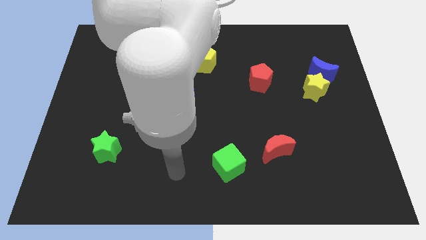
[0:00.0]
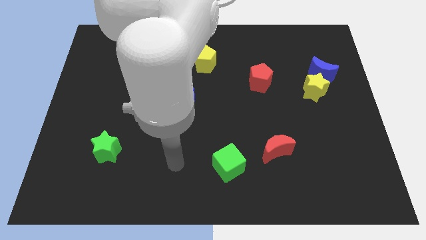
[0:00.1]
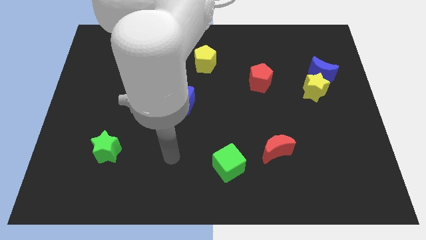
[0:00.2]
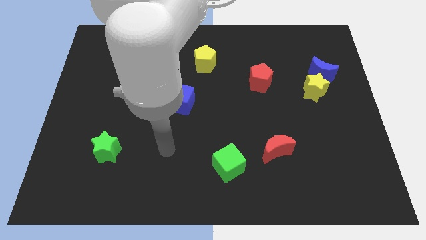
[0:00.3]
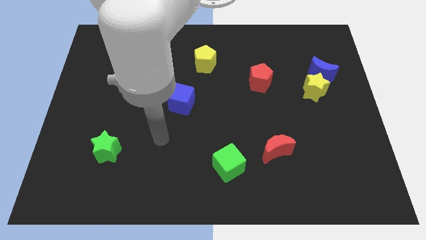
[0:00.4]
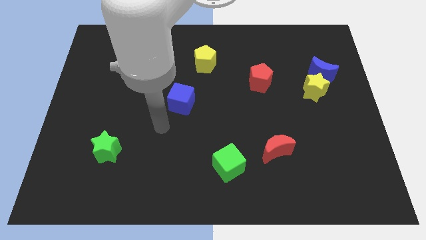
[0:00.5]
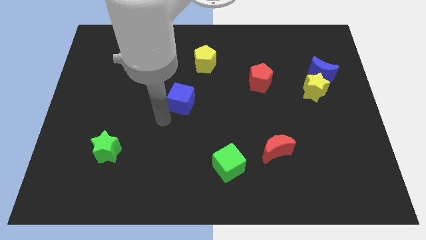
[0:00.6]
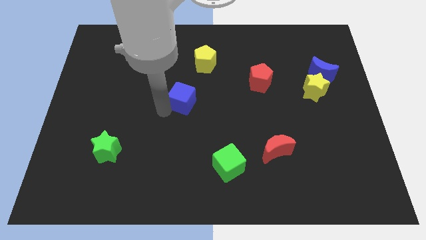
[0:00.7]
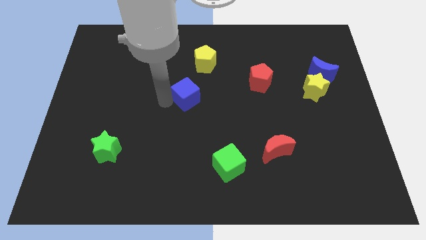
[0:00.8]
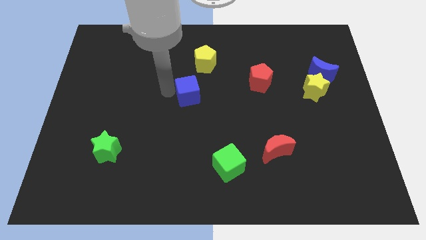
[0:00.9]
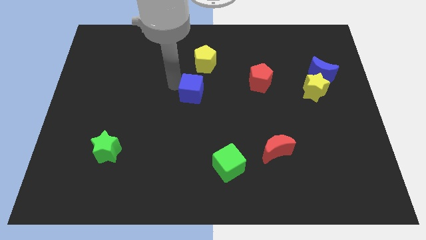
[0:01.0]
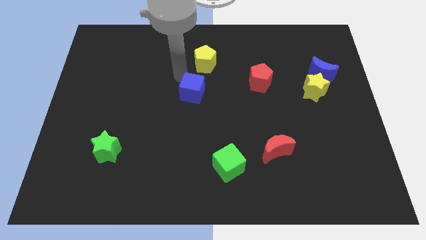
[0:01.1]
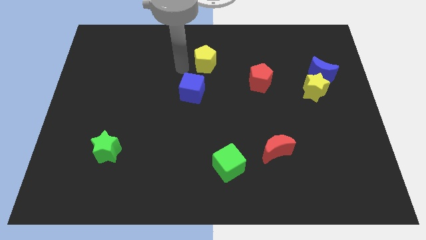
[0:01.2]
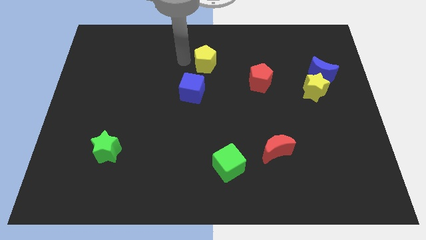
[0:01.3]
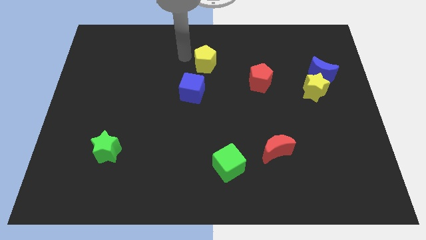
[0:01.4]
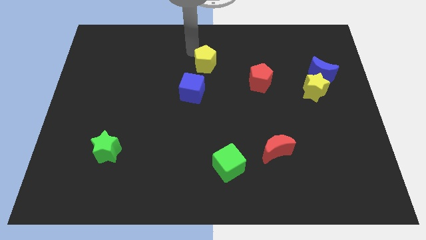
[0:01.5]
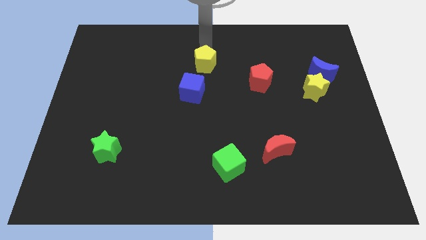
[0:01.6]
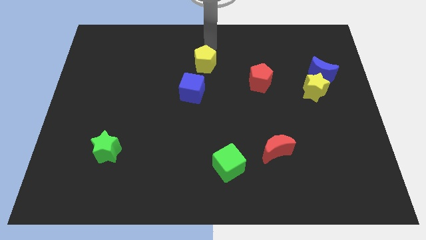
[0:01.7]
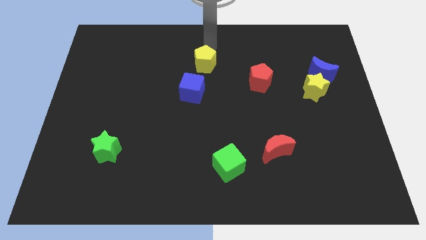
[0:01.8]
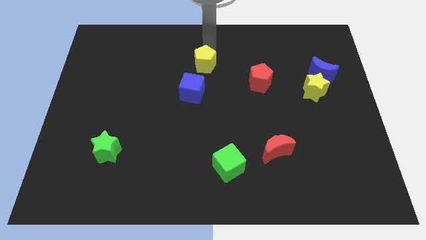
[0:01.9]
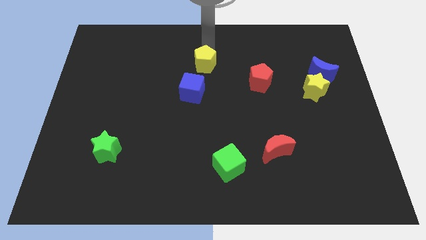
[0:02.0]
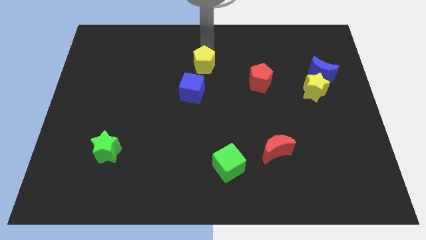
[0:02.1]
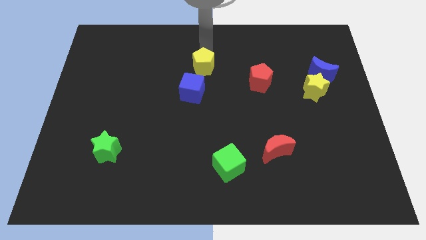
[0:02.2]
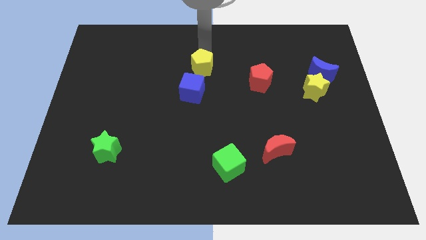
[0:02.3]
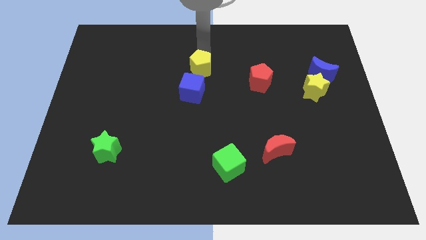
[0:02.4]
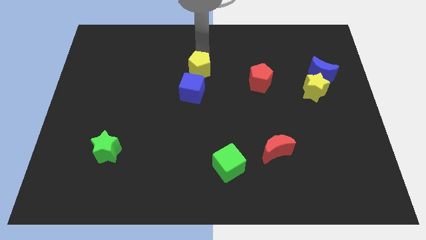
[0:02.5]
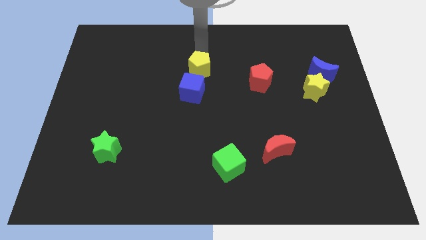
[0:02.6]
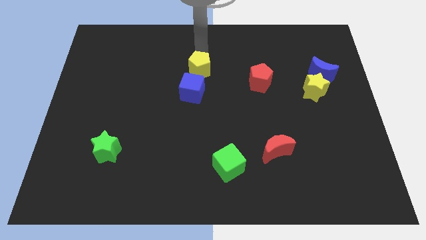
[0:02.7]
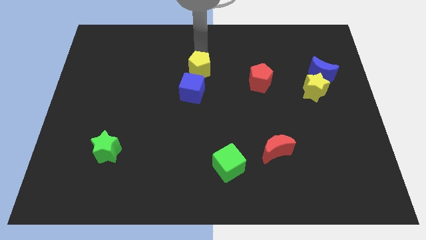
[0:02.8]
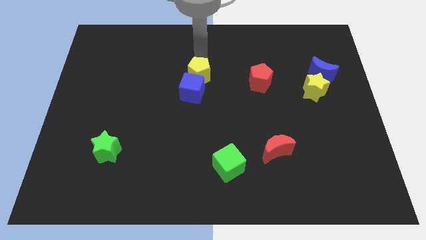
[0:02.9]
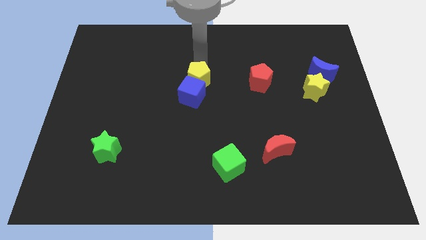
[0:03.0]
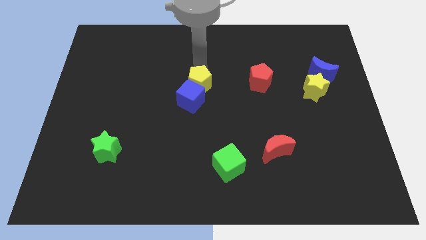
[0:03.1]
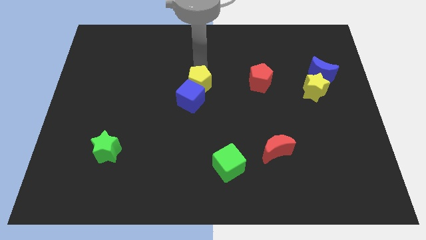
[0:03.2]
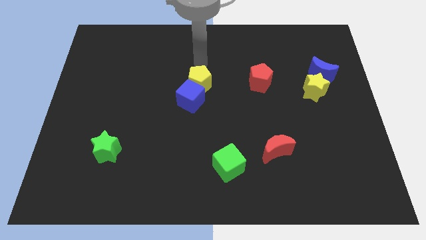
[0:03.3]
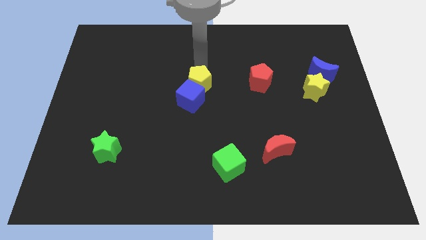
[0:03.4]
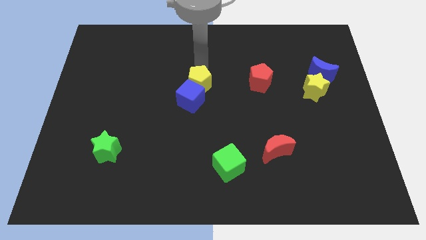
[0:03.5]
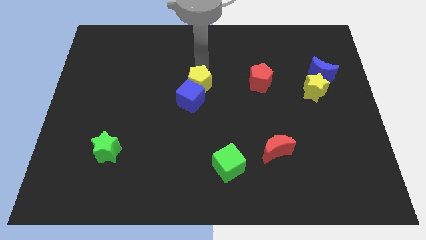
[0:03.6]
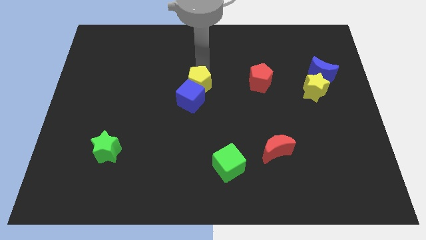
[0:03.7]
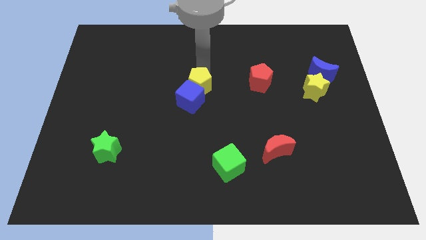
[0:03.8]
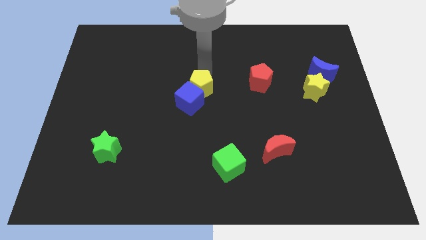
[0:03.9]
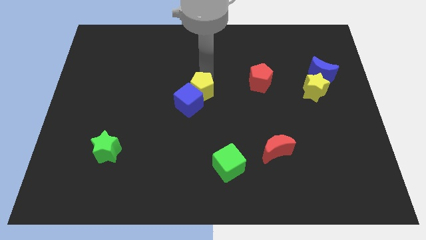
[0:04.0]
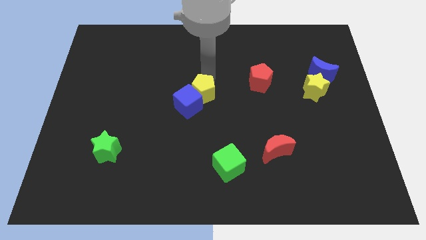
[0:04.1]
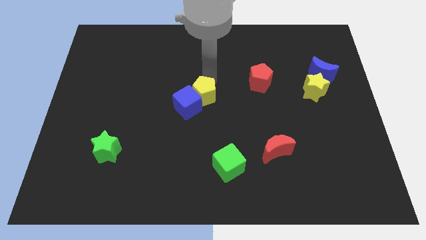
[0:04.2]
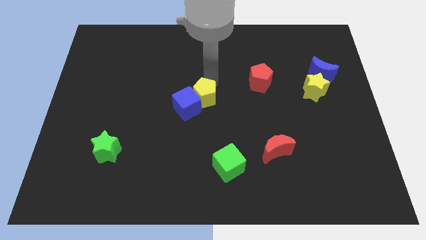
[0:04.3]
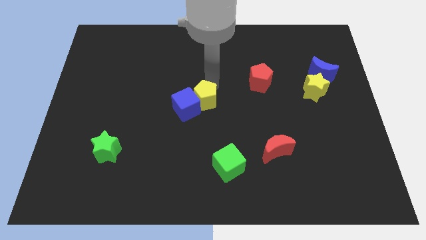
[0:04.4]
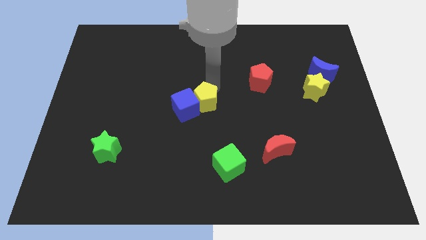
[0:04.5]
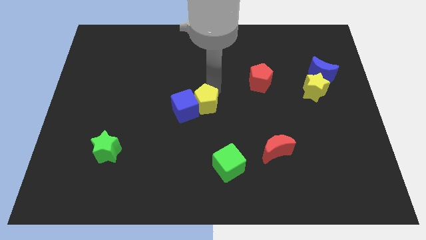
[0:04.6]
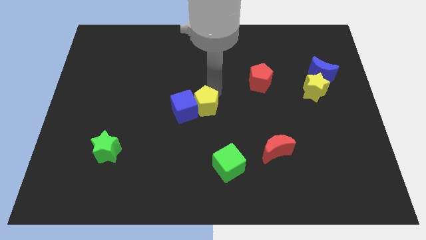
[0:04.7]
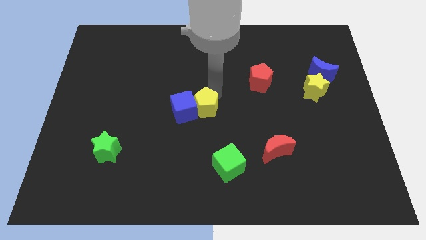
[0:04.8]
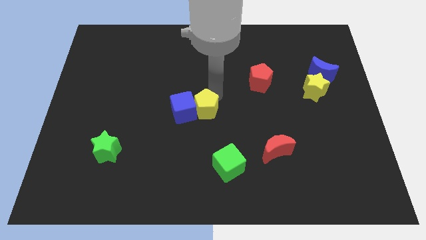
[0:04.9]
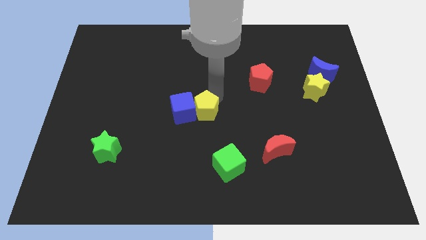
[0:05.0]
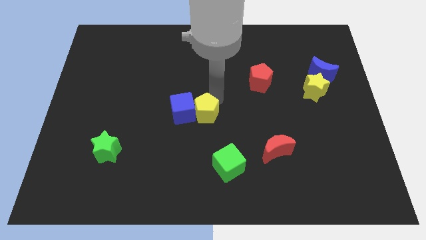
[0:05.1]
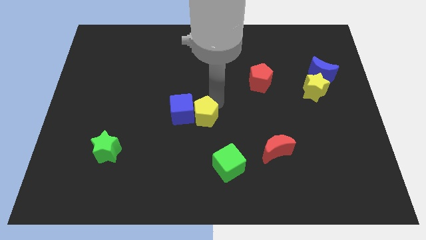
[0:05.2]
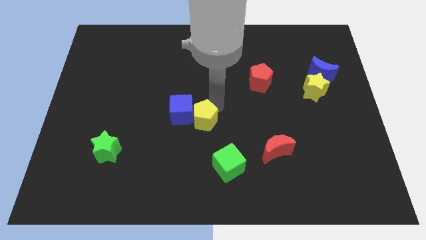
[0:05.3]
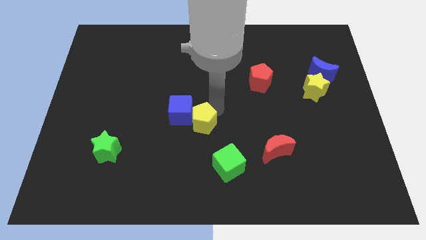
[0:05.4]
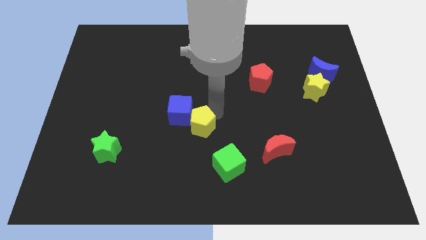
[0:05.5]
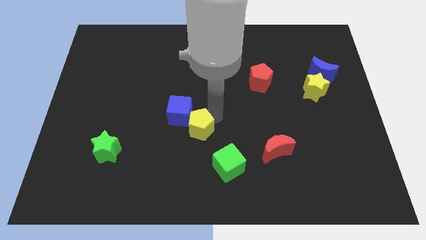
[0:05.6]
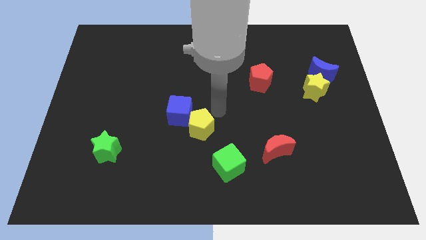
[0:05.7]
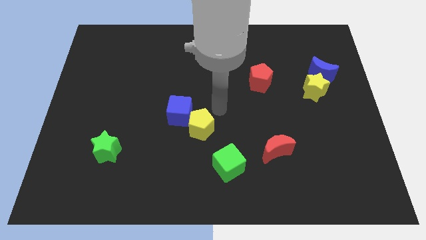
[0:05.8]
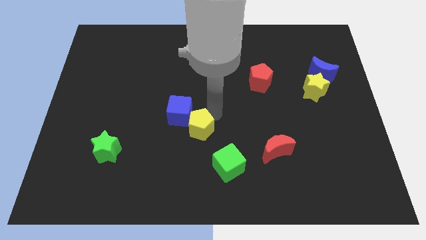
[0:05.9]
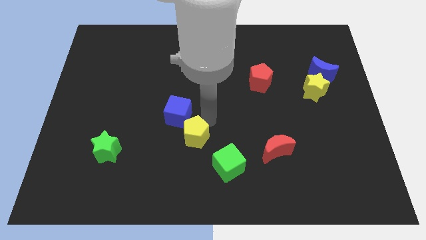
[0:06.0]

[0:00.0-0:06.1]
push the yellow pentagon below the blue cube

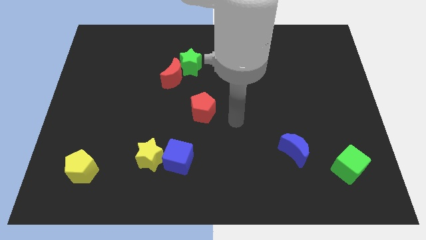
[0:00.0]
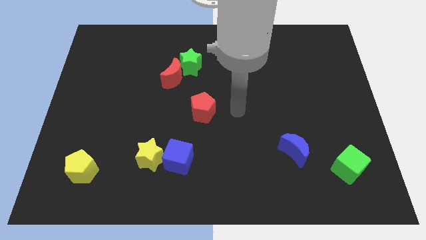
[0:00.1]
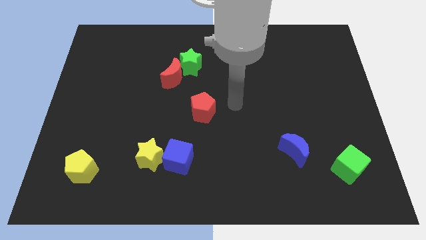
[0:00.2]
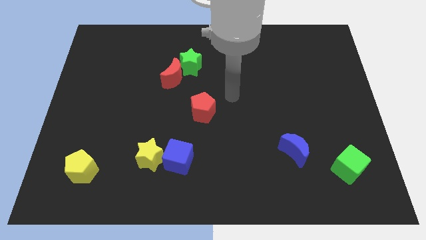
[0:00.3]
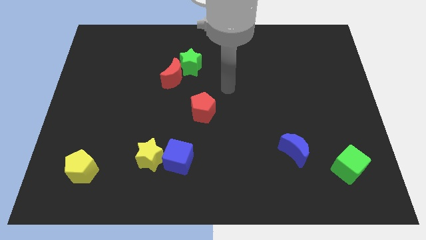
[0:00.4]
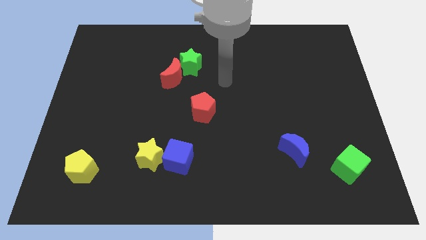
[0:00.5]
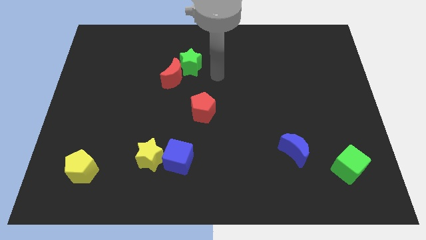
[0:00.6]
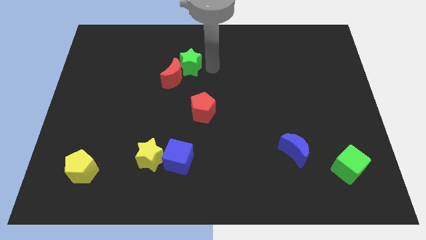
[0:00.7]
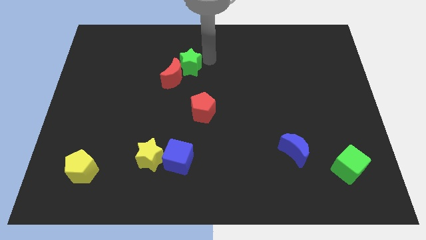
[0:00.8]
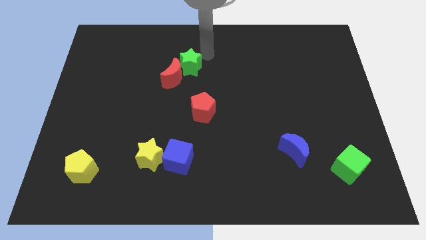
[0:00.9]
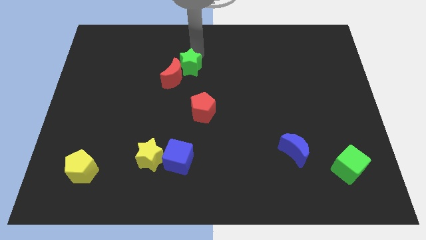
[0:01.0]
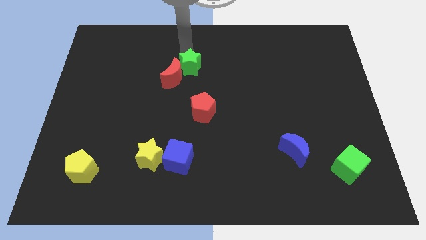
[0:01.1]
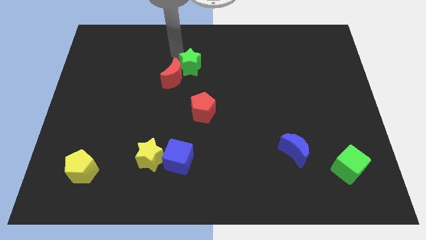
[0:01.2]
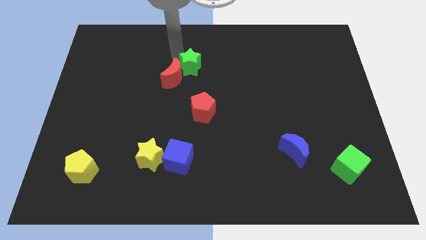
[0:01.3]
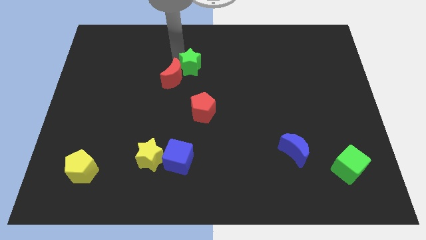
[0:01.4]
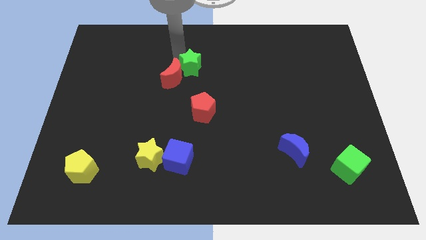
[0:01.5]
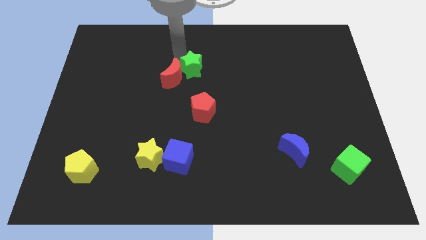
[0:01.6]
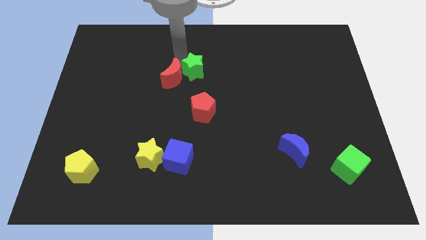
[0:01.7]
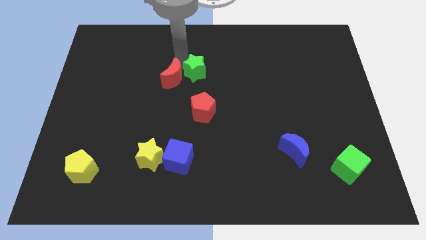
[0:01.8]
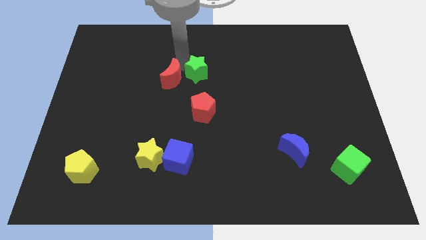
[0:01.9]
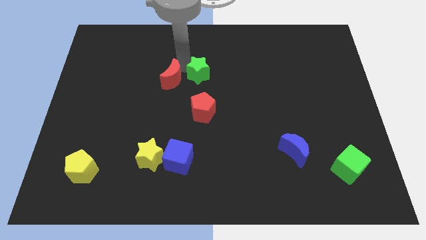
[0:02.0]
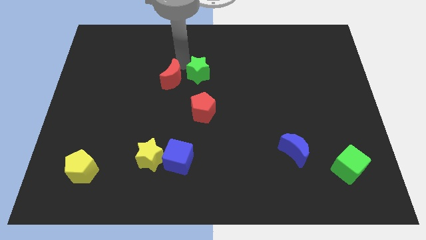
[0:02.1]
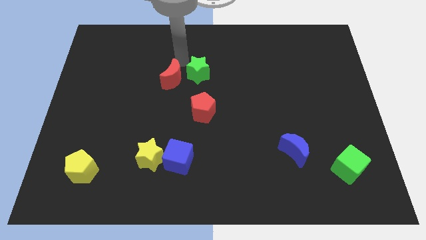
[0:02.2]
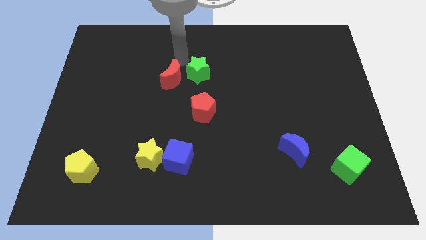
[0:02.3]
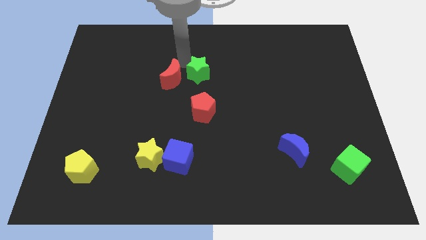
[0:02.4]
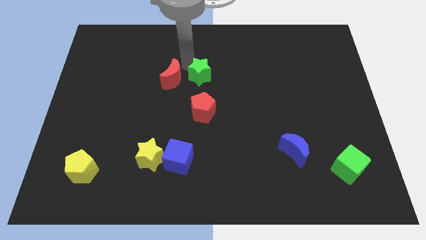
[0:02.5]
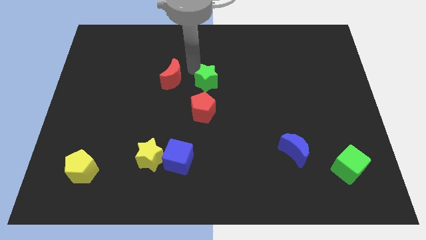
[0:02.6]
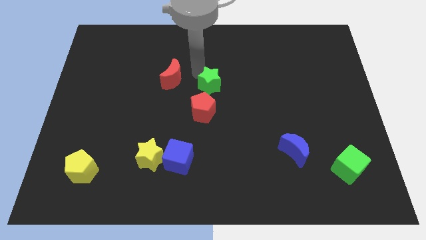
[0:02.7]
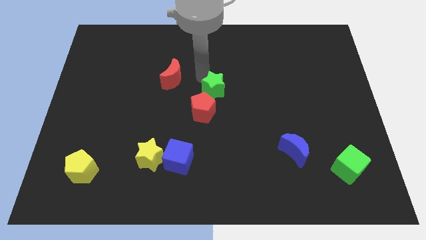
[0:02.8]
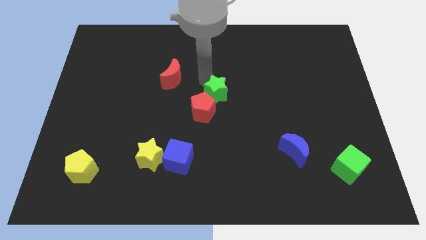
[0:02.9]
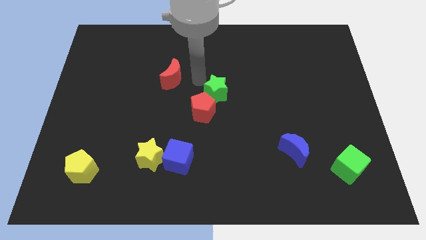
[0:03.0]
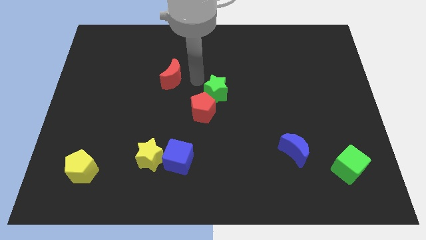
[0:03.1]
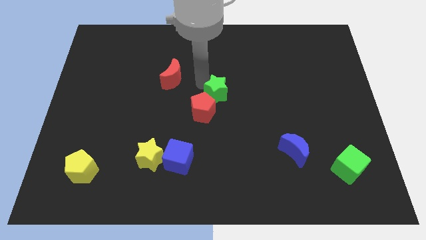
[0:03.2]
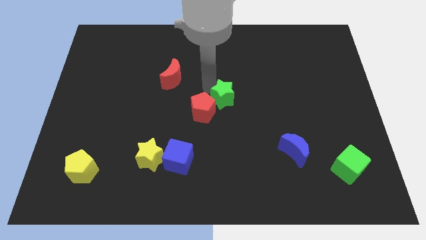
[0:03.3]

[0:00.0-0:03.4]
slide the green star to the right of the red pentagon
